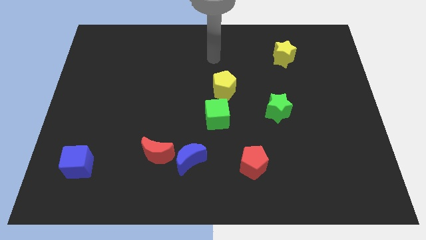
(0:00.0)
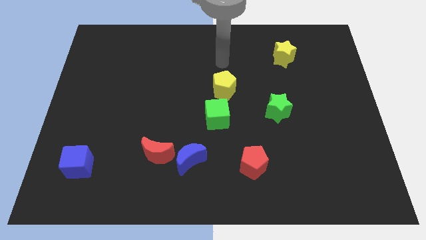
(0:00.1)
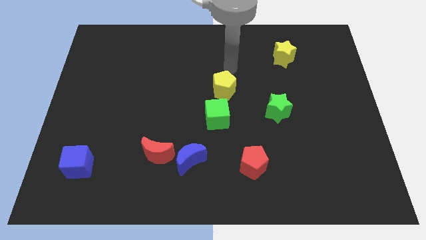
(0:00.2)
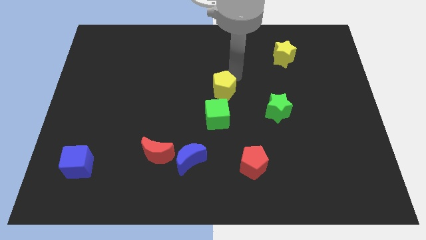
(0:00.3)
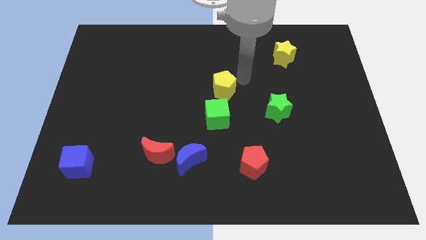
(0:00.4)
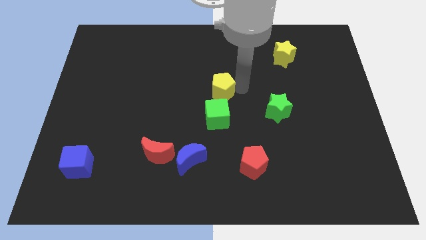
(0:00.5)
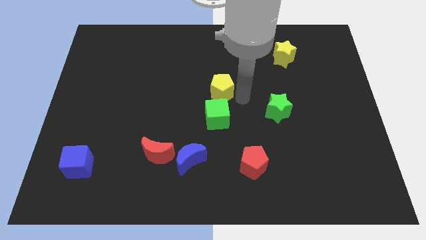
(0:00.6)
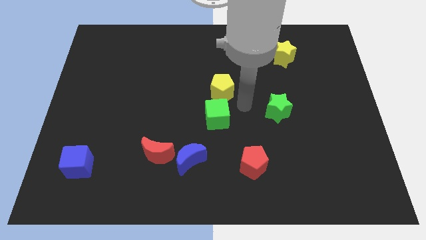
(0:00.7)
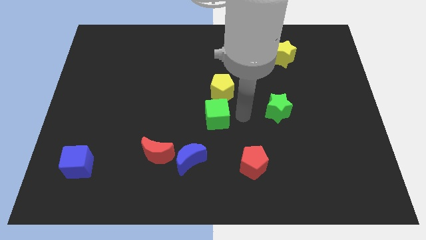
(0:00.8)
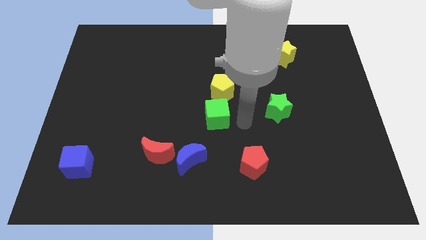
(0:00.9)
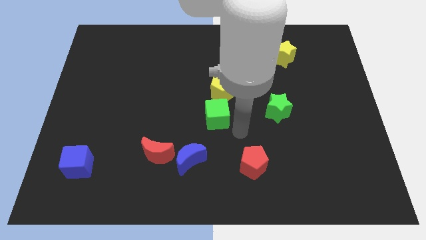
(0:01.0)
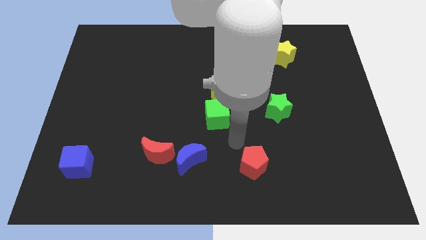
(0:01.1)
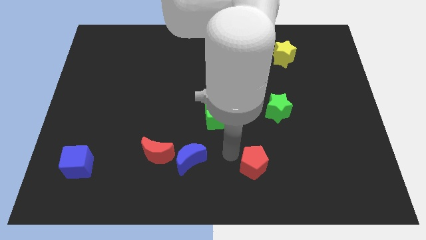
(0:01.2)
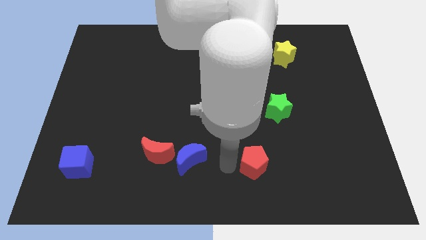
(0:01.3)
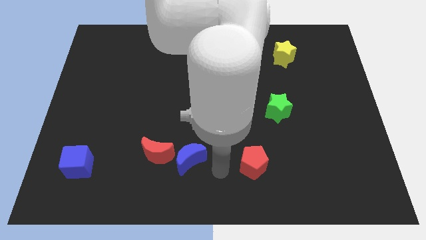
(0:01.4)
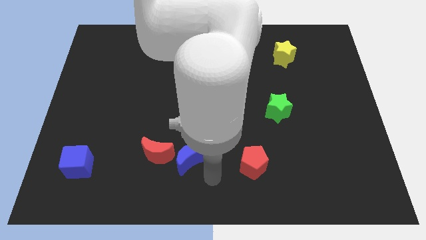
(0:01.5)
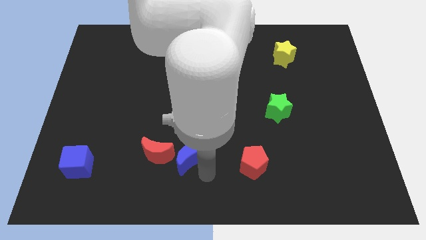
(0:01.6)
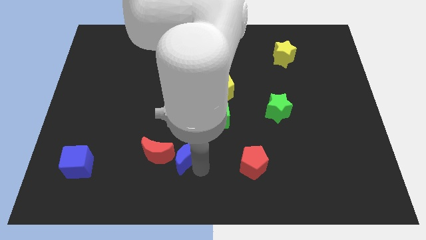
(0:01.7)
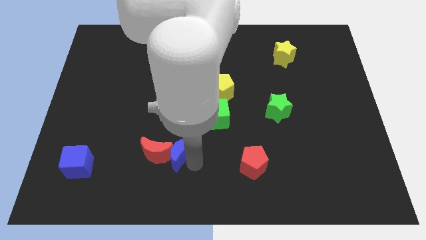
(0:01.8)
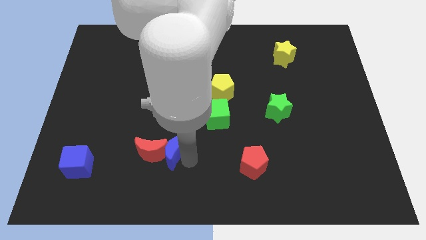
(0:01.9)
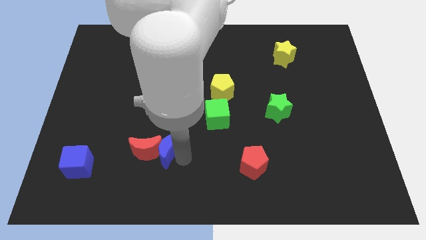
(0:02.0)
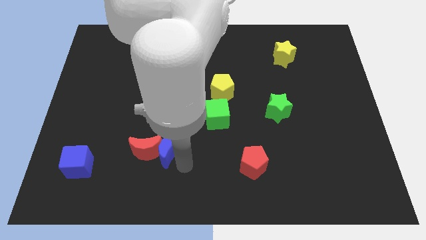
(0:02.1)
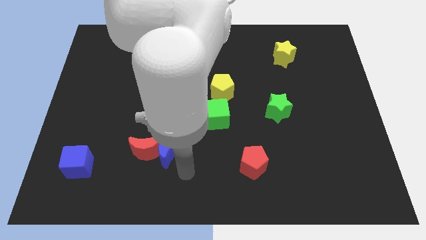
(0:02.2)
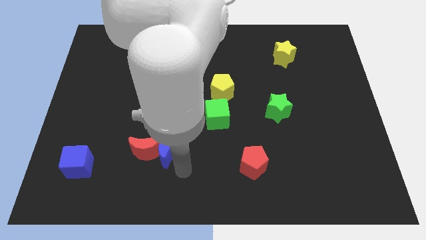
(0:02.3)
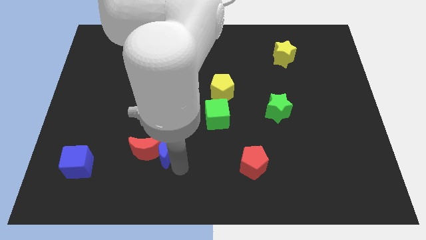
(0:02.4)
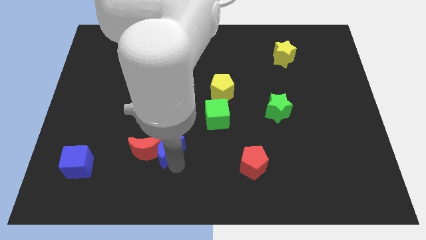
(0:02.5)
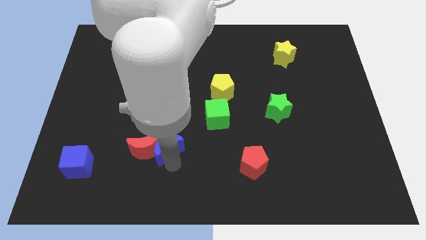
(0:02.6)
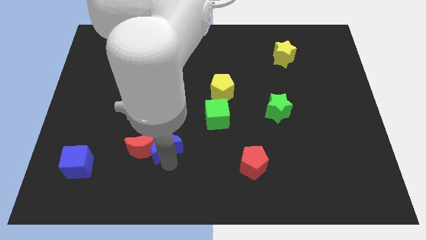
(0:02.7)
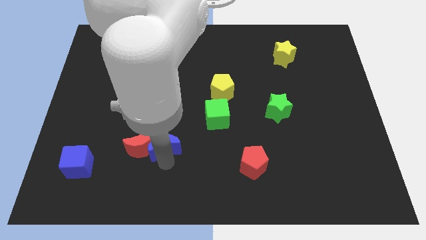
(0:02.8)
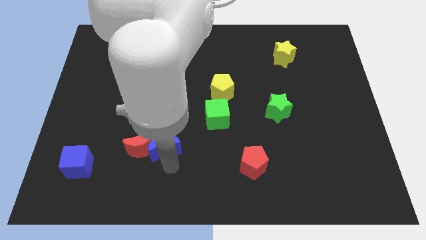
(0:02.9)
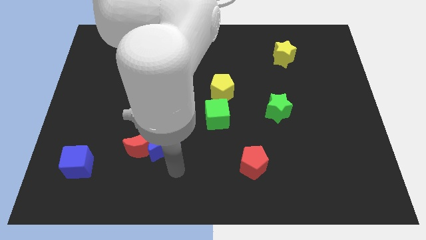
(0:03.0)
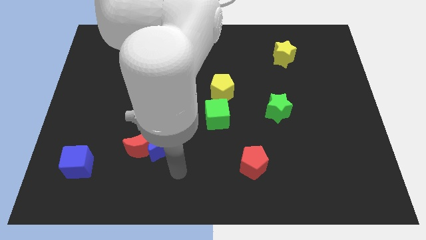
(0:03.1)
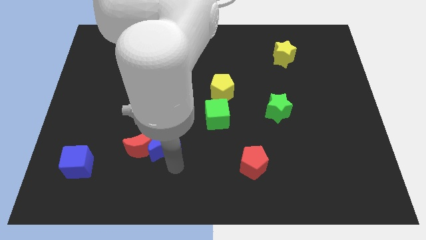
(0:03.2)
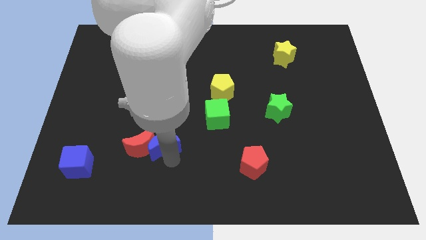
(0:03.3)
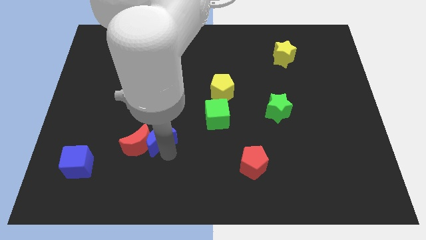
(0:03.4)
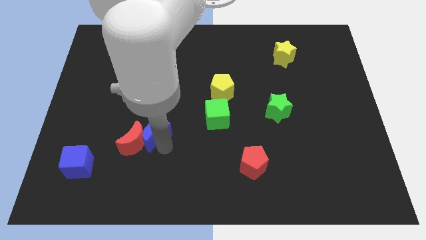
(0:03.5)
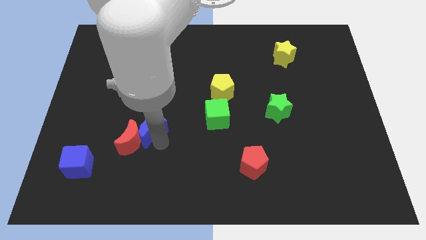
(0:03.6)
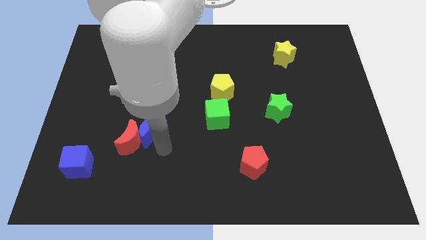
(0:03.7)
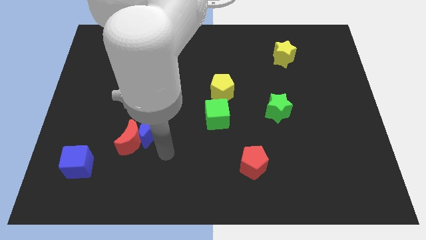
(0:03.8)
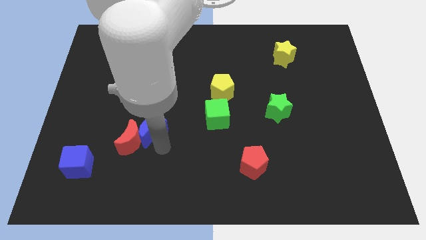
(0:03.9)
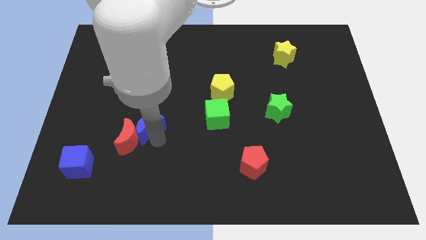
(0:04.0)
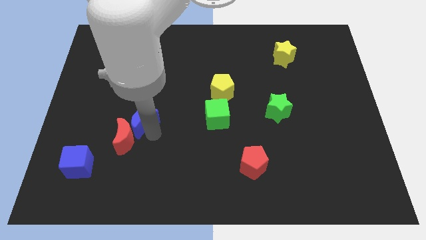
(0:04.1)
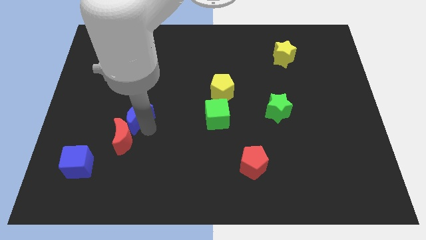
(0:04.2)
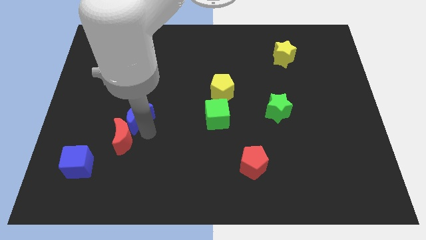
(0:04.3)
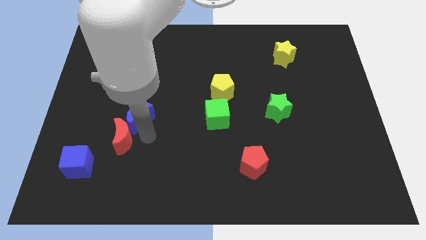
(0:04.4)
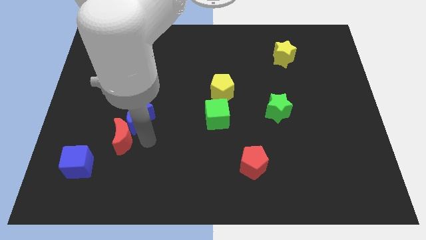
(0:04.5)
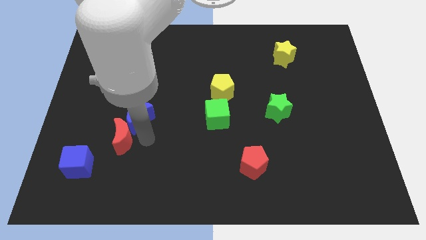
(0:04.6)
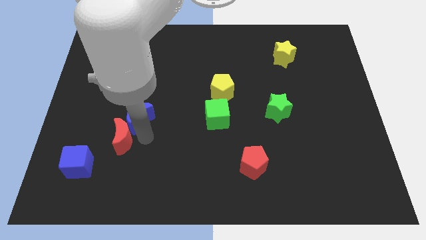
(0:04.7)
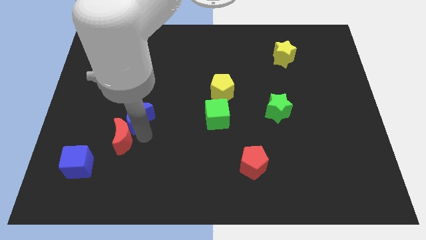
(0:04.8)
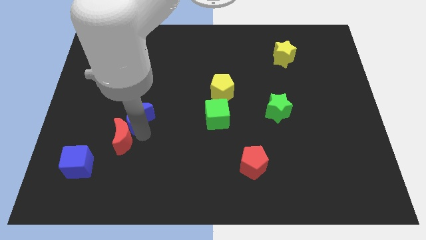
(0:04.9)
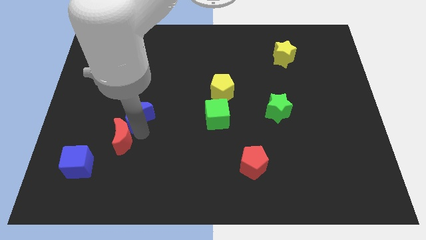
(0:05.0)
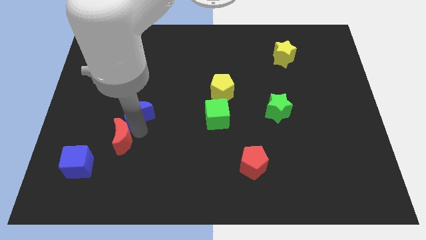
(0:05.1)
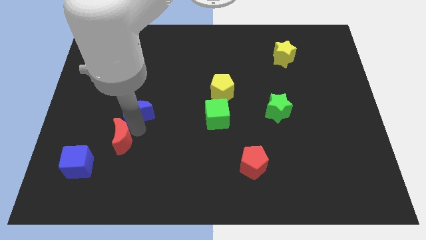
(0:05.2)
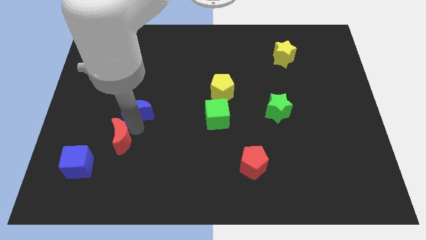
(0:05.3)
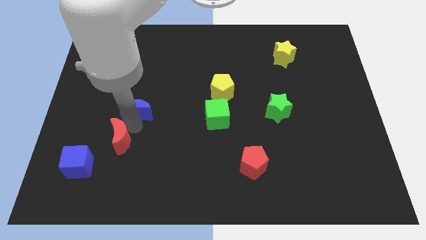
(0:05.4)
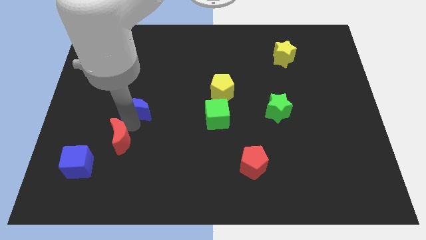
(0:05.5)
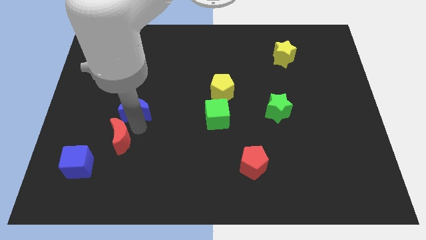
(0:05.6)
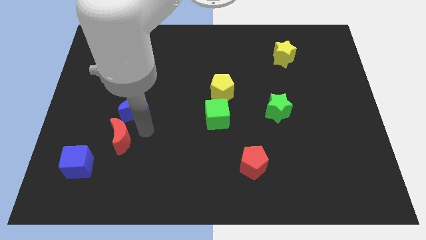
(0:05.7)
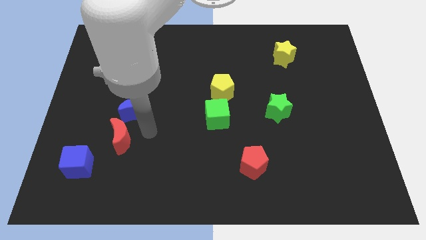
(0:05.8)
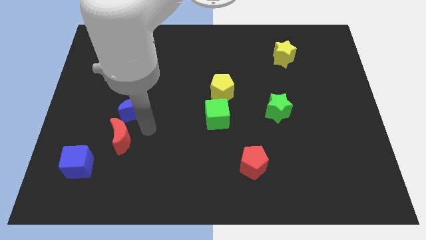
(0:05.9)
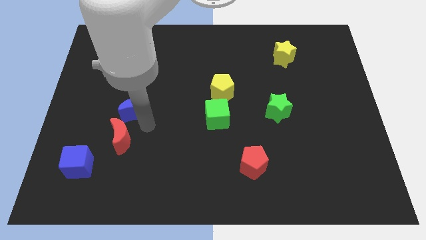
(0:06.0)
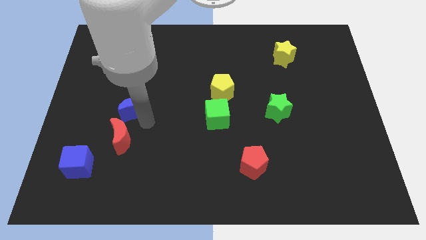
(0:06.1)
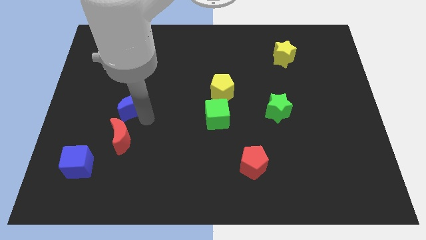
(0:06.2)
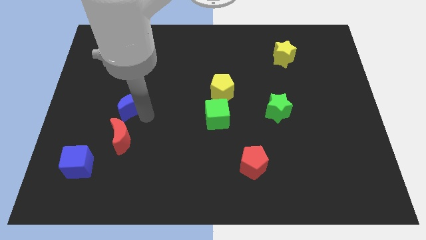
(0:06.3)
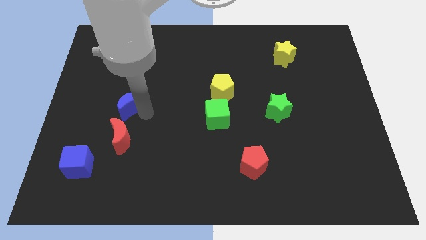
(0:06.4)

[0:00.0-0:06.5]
push the blue moon upwards and then to the left

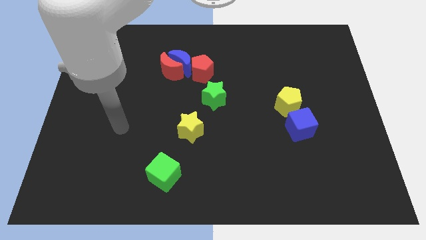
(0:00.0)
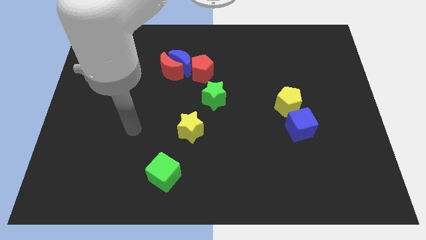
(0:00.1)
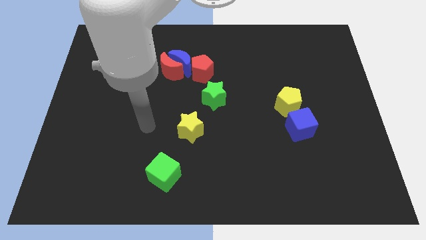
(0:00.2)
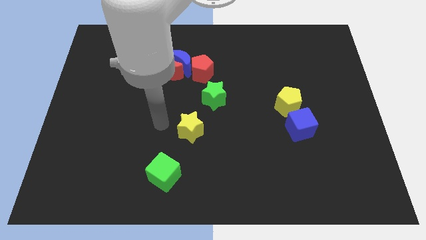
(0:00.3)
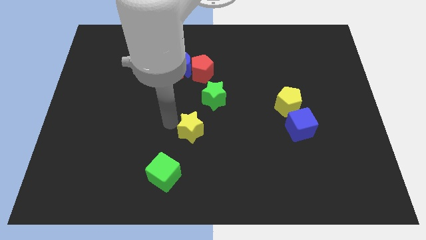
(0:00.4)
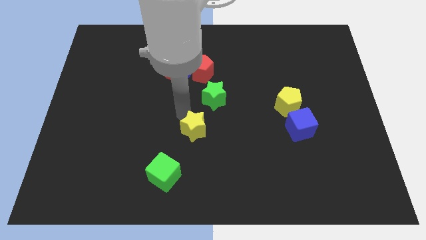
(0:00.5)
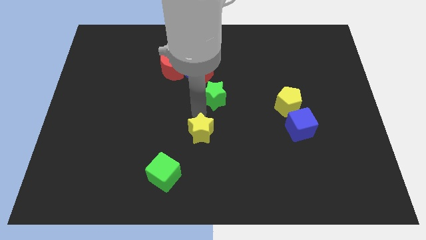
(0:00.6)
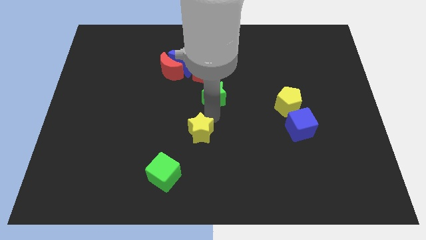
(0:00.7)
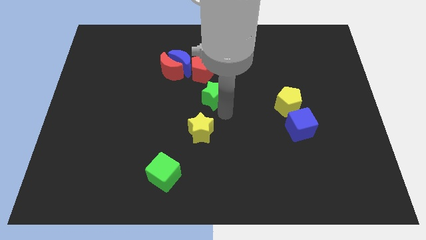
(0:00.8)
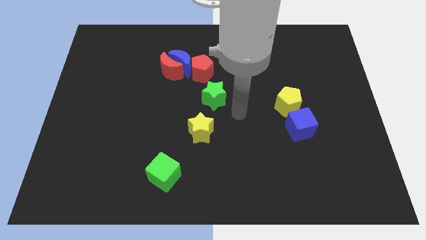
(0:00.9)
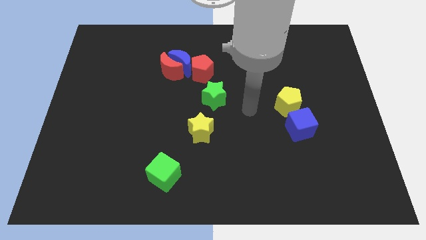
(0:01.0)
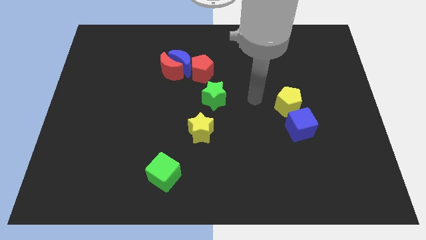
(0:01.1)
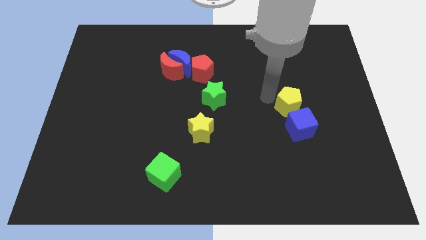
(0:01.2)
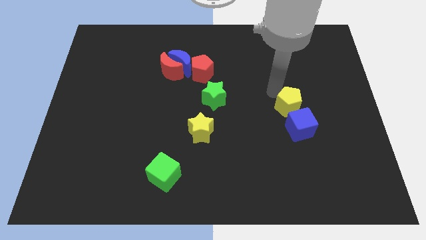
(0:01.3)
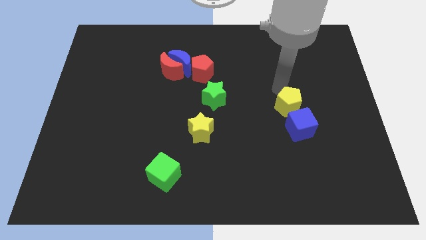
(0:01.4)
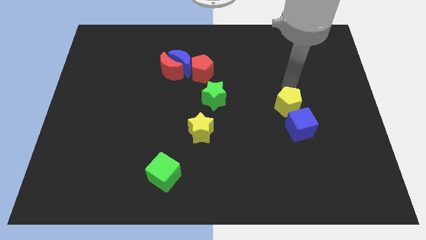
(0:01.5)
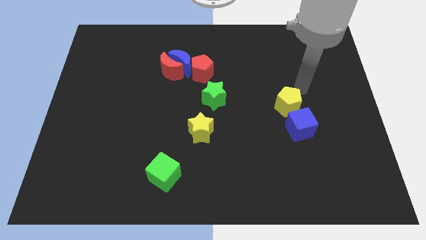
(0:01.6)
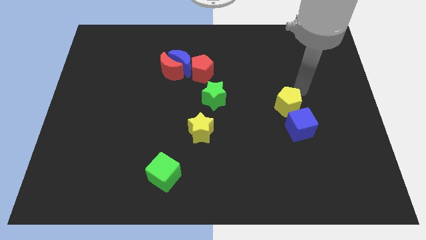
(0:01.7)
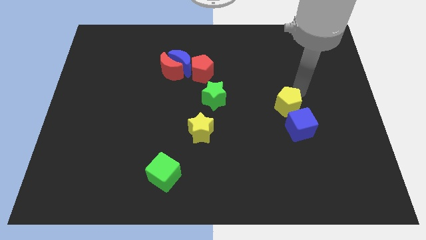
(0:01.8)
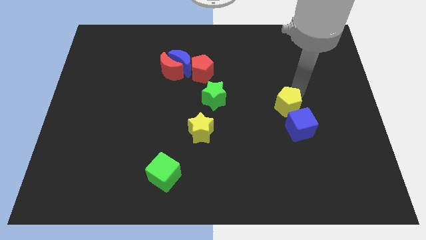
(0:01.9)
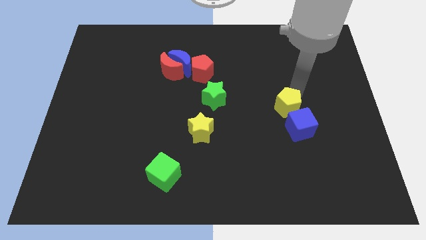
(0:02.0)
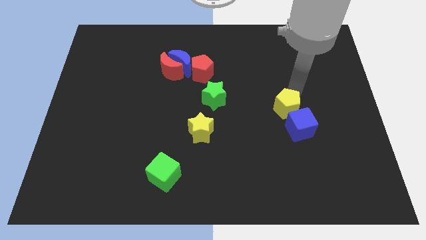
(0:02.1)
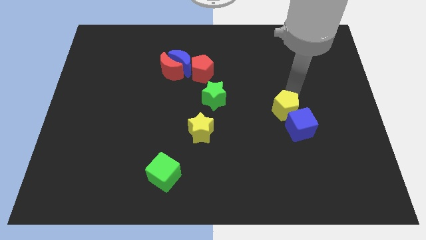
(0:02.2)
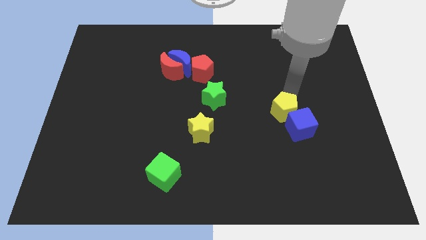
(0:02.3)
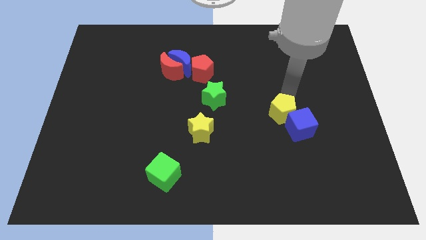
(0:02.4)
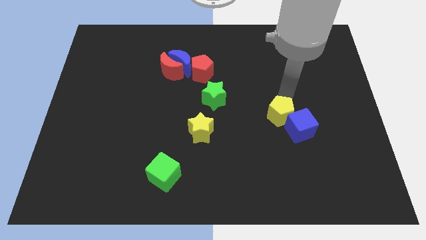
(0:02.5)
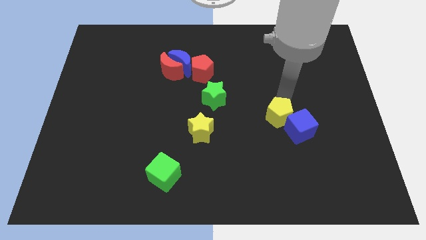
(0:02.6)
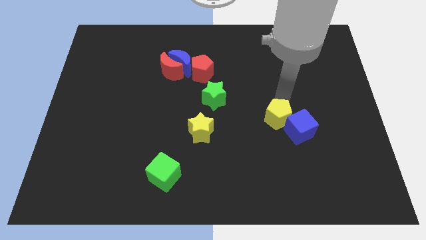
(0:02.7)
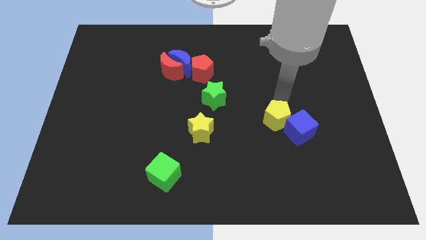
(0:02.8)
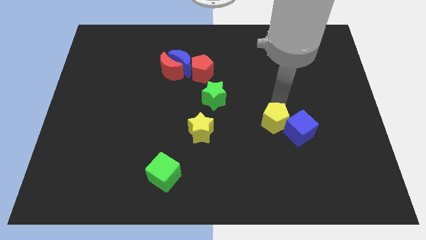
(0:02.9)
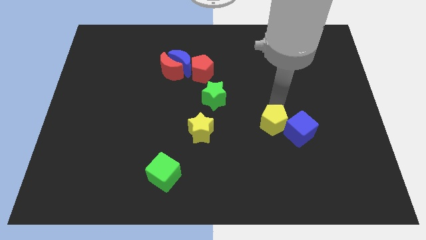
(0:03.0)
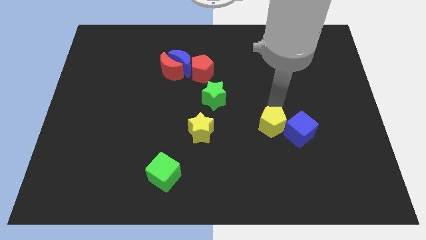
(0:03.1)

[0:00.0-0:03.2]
move the yellow pentagon a little diagonally down and to the left
